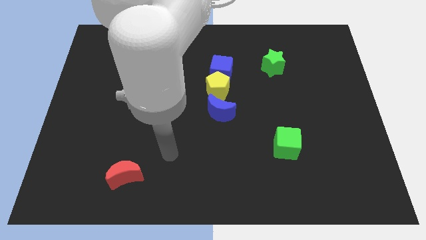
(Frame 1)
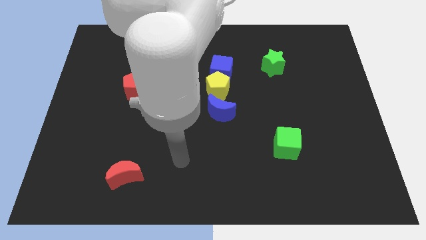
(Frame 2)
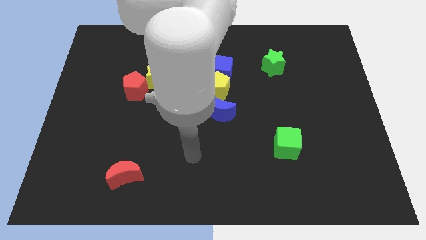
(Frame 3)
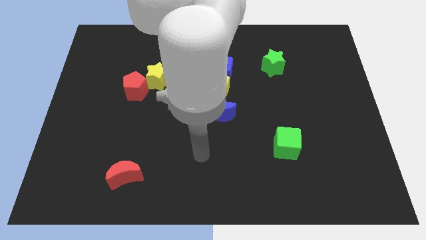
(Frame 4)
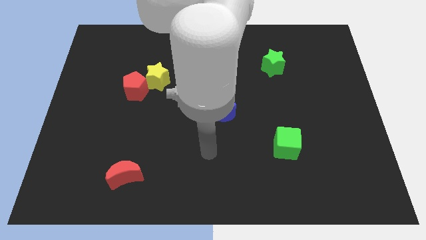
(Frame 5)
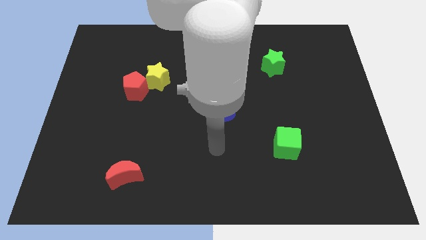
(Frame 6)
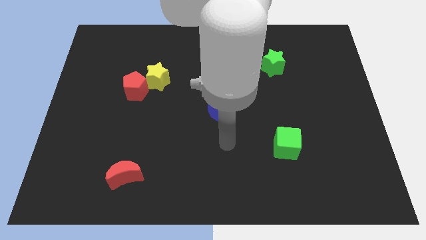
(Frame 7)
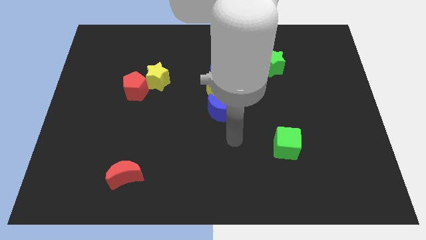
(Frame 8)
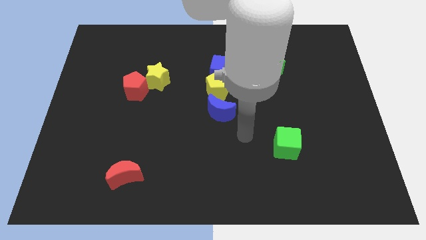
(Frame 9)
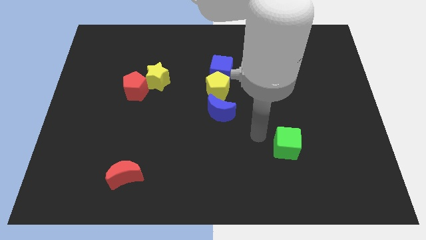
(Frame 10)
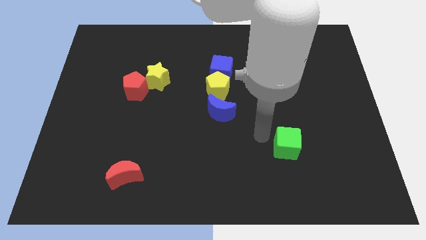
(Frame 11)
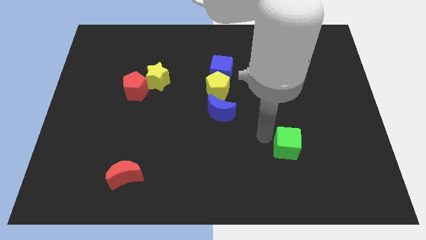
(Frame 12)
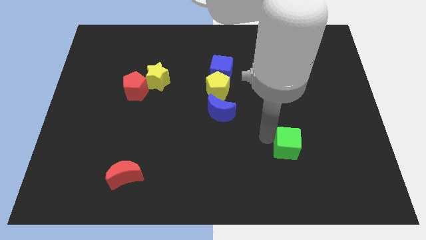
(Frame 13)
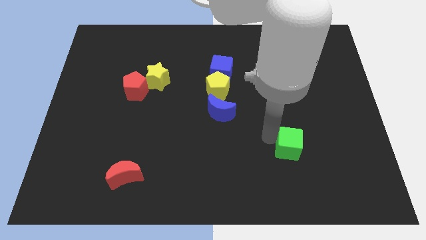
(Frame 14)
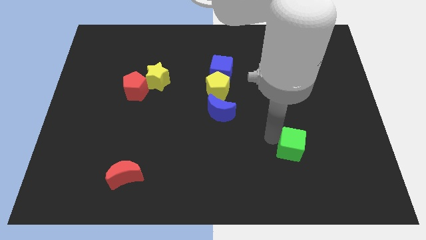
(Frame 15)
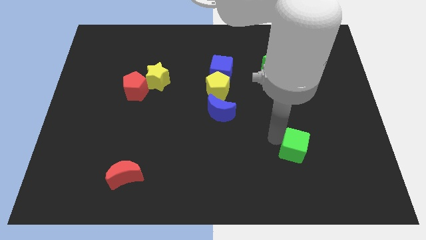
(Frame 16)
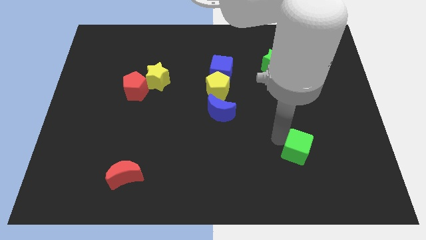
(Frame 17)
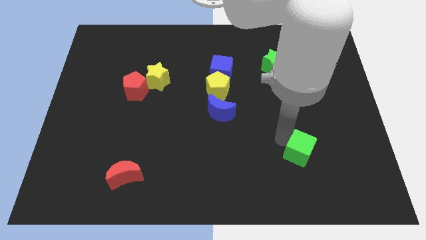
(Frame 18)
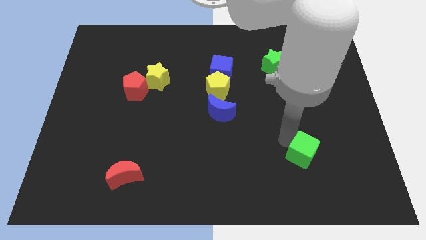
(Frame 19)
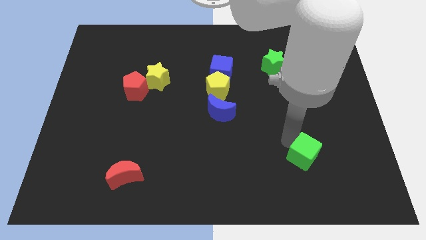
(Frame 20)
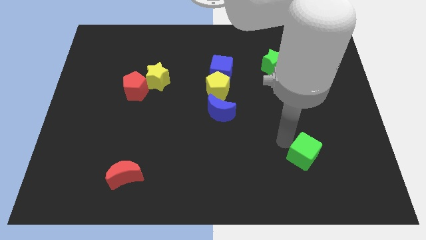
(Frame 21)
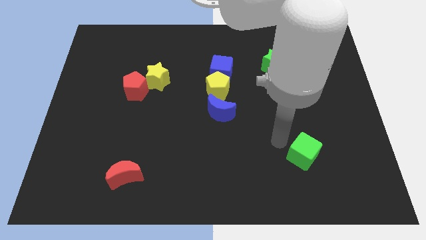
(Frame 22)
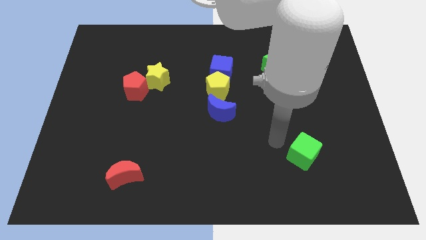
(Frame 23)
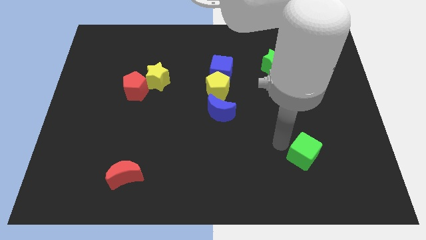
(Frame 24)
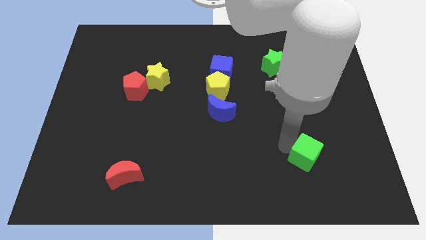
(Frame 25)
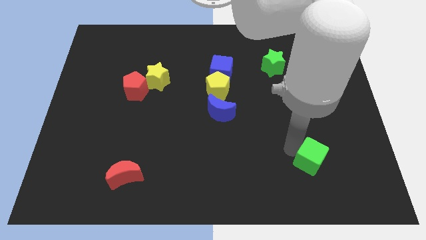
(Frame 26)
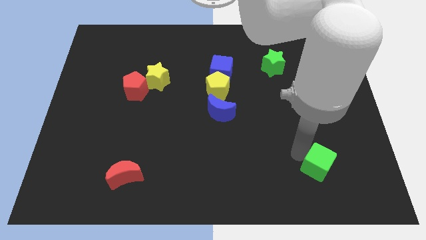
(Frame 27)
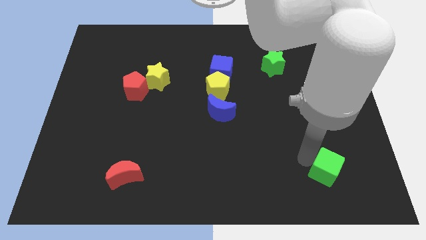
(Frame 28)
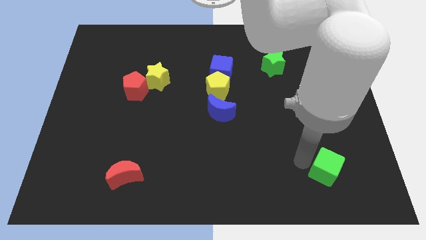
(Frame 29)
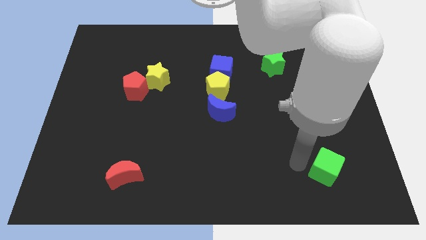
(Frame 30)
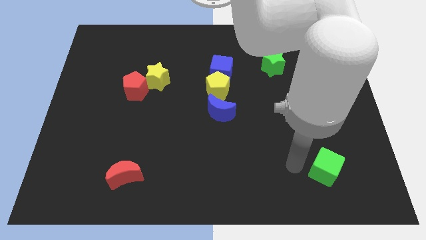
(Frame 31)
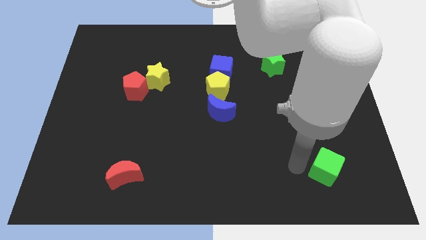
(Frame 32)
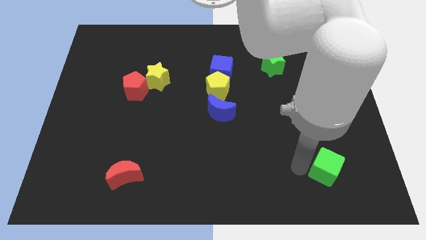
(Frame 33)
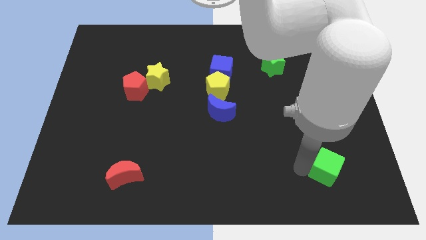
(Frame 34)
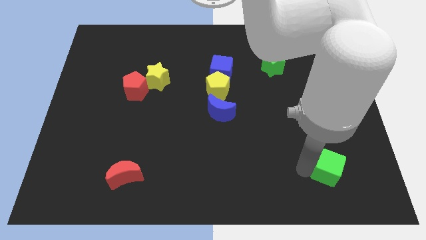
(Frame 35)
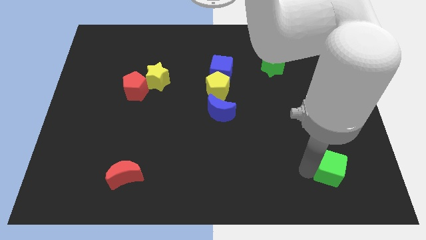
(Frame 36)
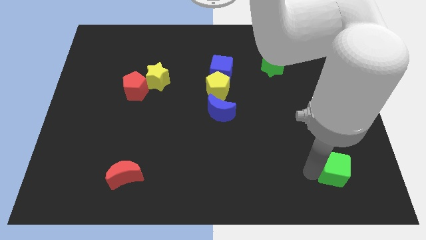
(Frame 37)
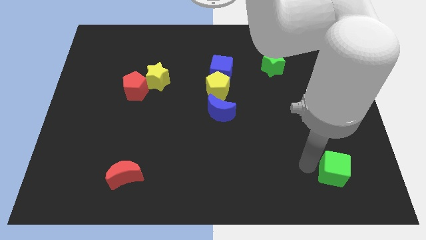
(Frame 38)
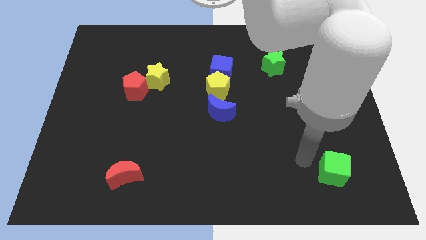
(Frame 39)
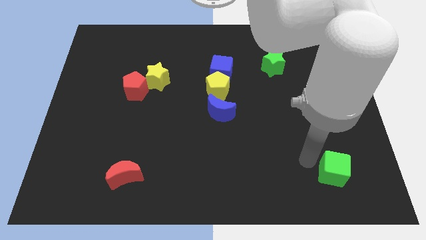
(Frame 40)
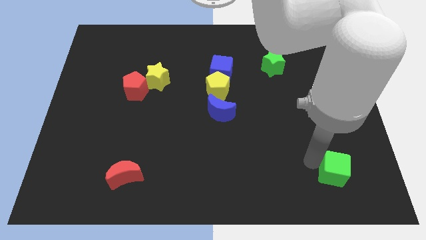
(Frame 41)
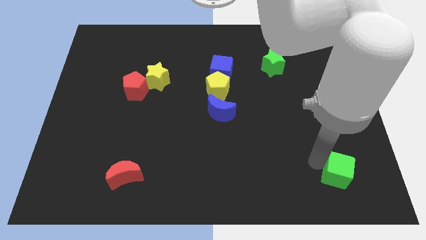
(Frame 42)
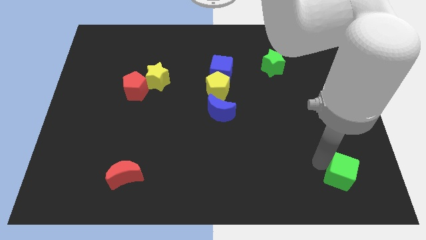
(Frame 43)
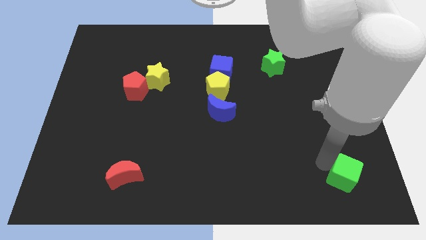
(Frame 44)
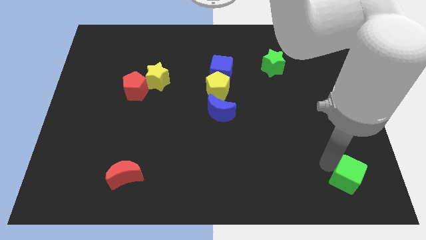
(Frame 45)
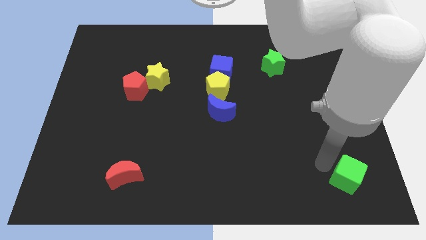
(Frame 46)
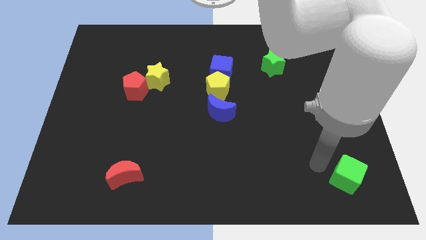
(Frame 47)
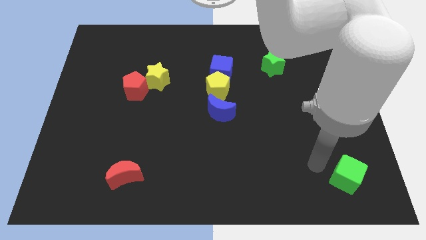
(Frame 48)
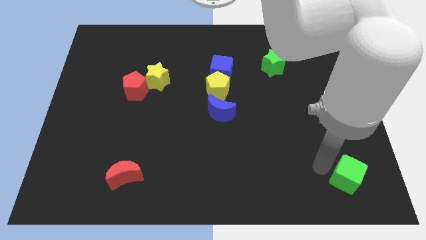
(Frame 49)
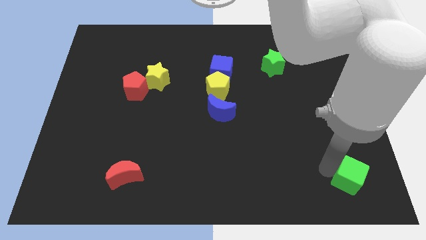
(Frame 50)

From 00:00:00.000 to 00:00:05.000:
put the green cube to the bottom right corner

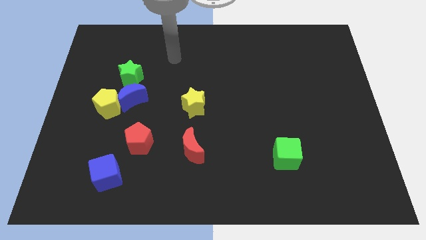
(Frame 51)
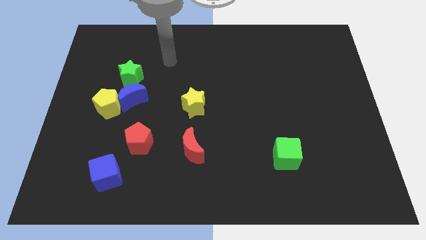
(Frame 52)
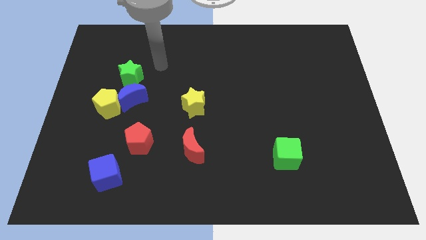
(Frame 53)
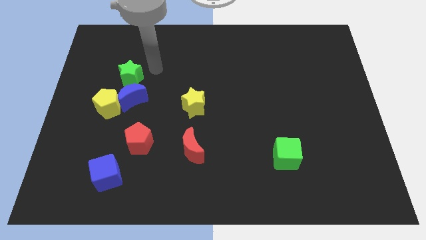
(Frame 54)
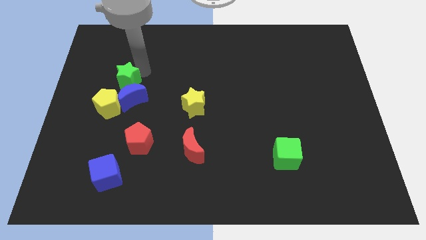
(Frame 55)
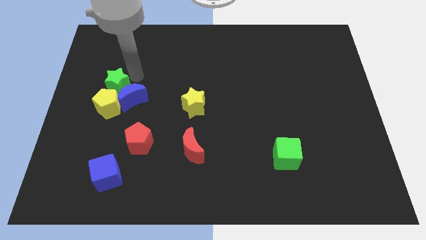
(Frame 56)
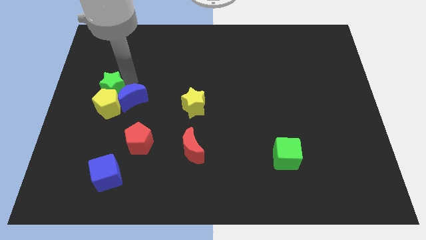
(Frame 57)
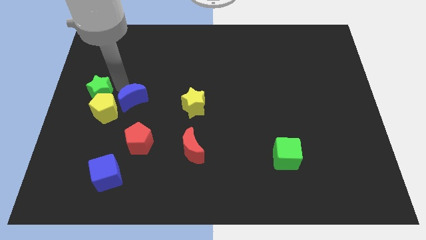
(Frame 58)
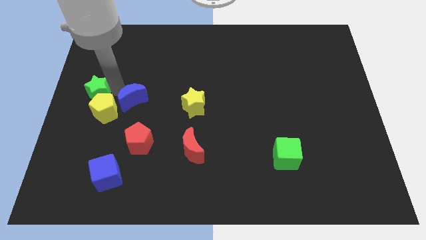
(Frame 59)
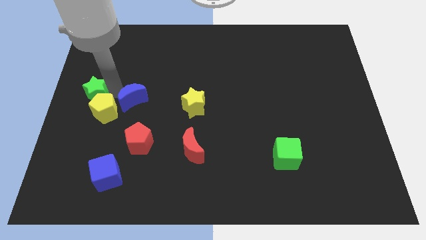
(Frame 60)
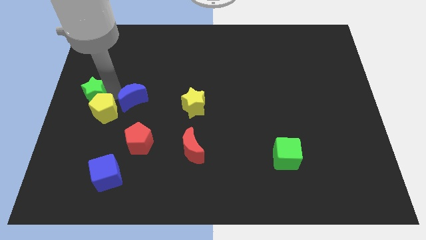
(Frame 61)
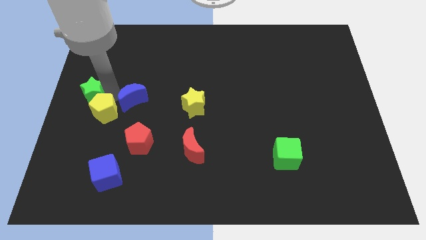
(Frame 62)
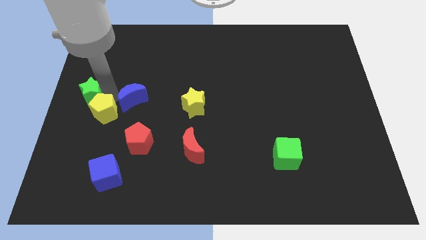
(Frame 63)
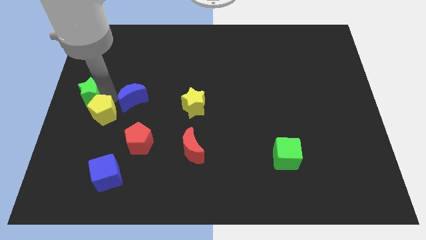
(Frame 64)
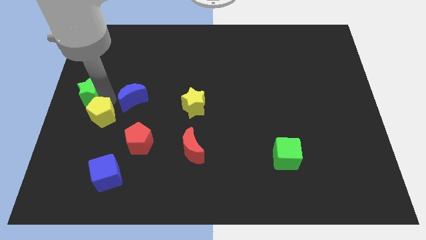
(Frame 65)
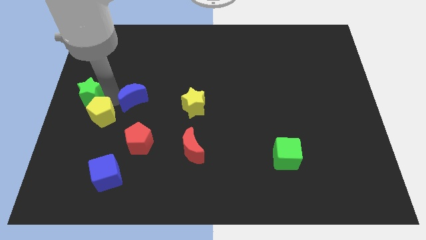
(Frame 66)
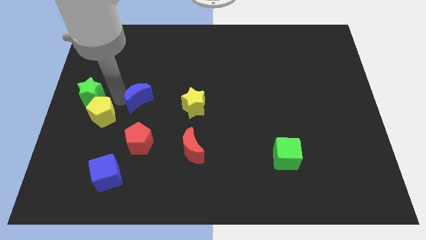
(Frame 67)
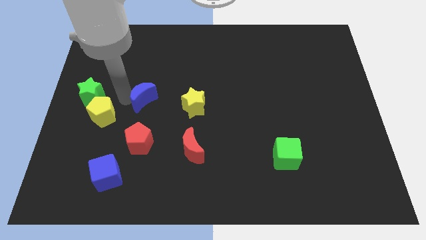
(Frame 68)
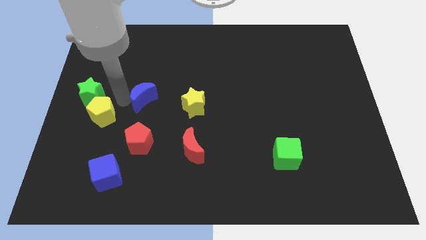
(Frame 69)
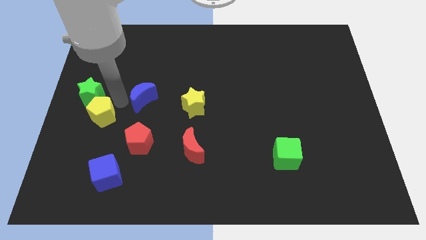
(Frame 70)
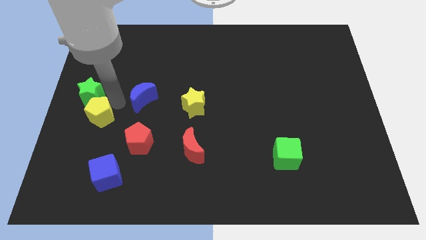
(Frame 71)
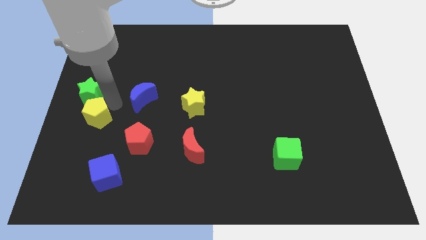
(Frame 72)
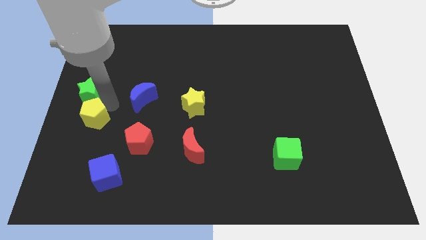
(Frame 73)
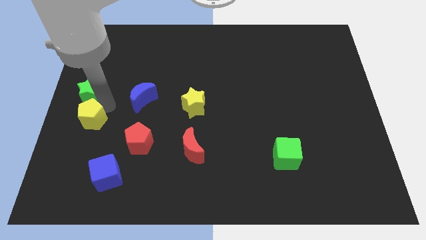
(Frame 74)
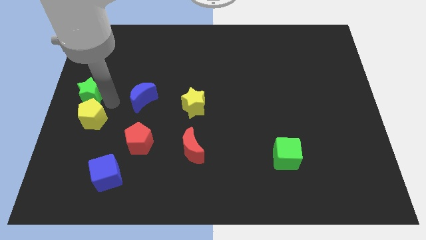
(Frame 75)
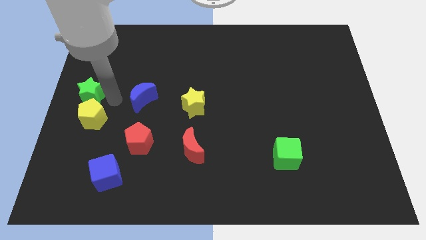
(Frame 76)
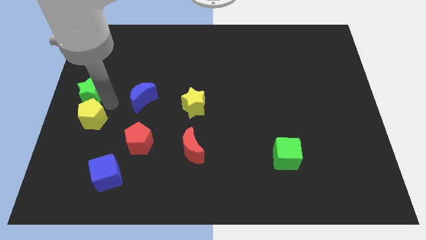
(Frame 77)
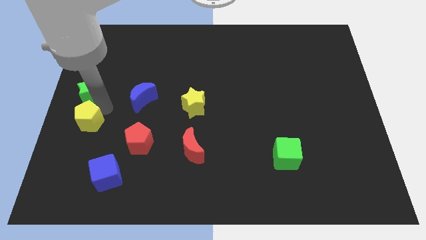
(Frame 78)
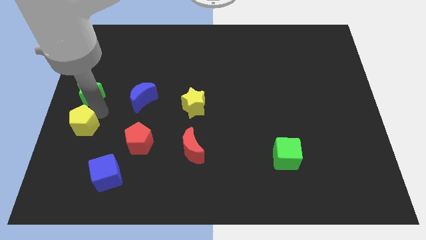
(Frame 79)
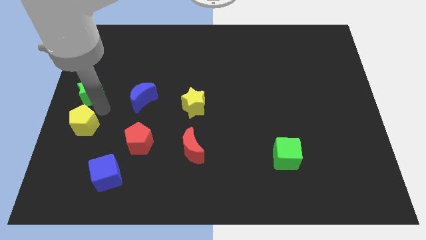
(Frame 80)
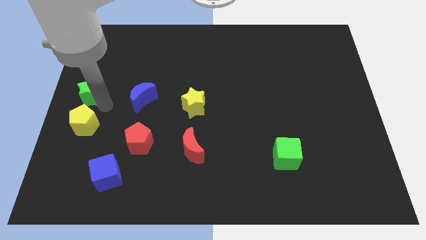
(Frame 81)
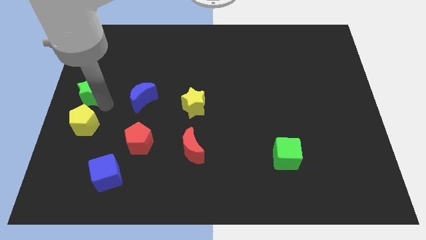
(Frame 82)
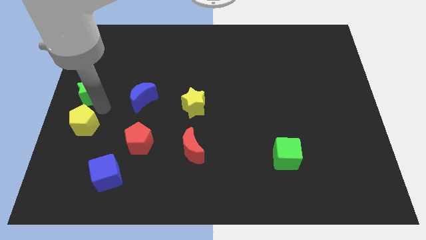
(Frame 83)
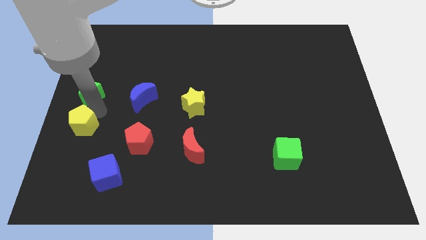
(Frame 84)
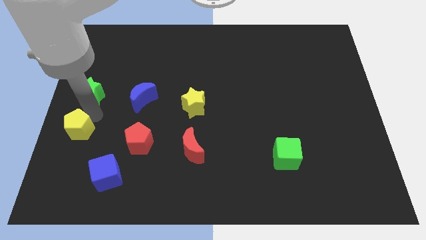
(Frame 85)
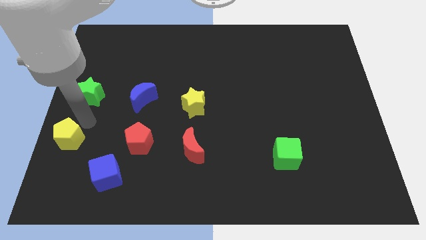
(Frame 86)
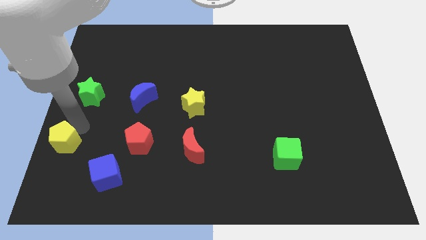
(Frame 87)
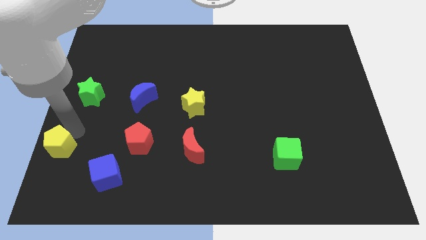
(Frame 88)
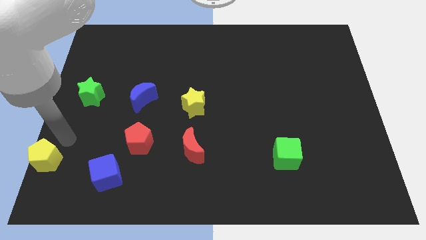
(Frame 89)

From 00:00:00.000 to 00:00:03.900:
slide the yellow pentagon to the bottom left of the board
